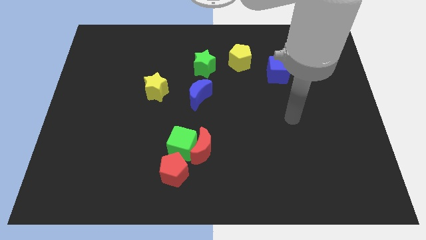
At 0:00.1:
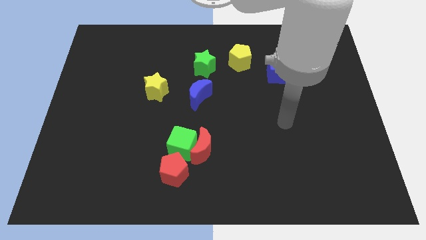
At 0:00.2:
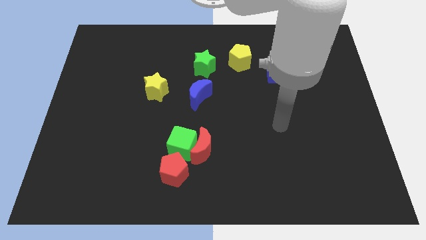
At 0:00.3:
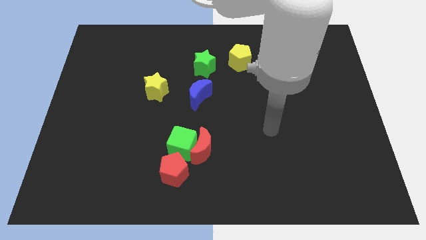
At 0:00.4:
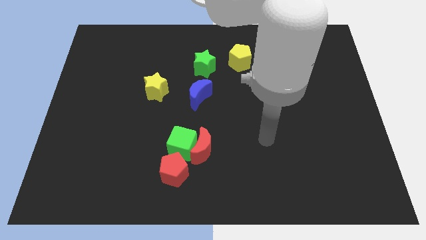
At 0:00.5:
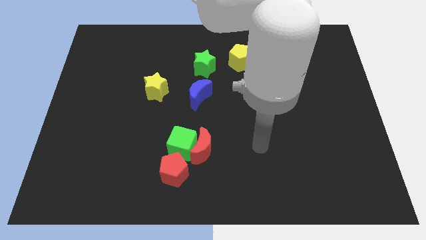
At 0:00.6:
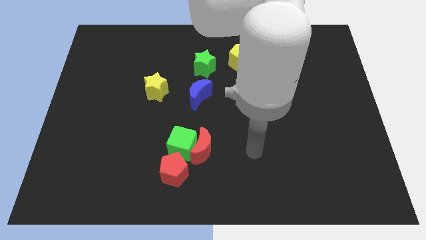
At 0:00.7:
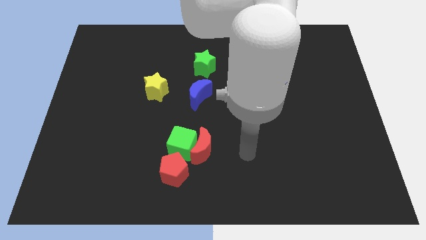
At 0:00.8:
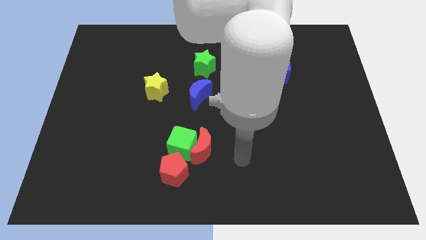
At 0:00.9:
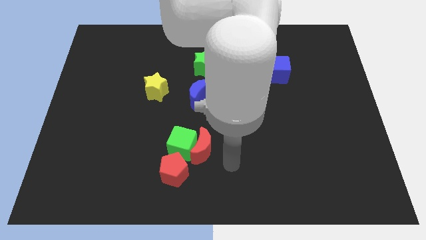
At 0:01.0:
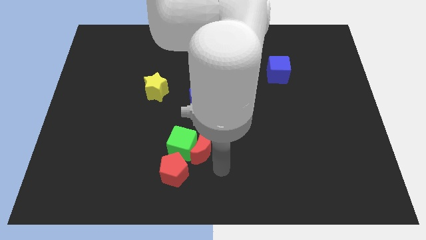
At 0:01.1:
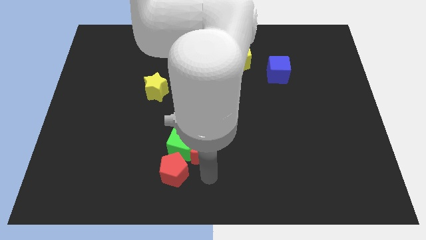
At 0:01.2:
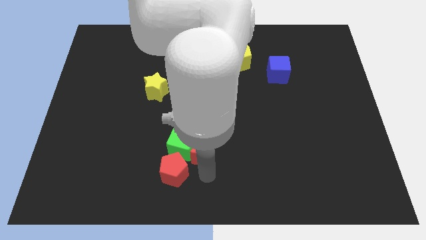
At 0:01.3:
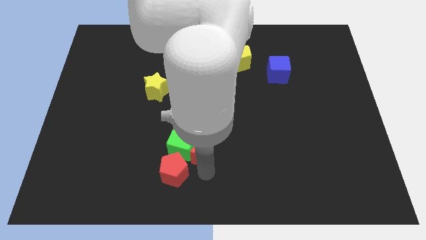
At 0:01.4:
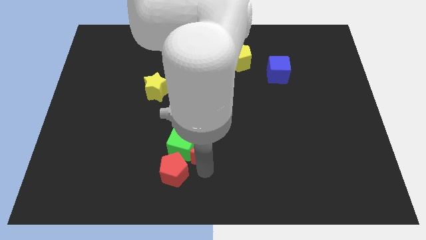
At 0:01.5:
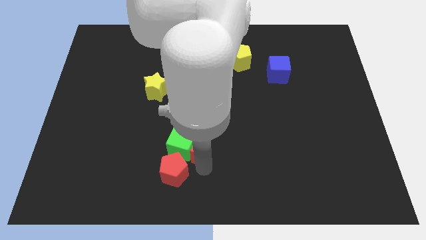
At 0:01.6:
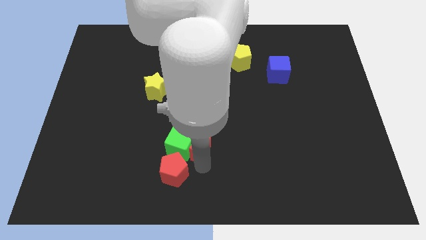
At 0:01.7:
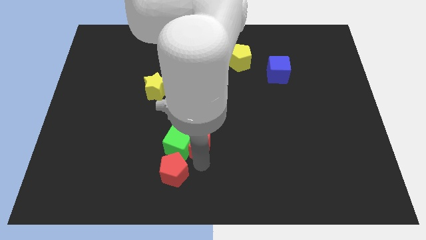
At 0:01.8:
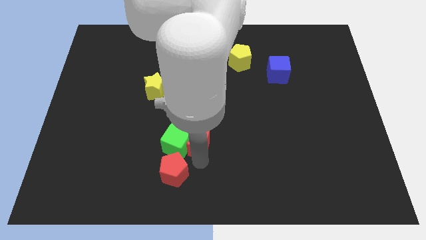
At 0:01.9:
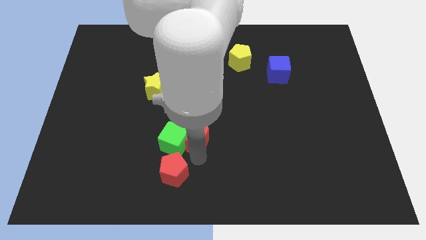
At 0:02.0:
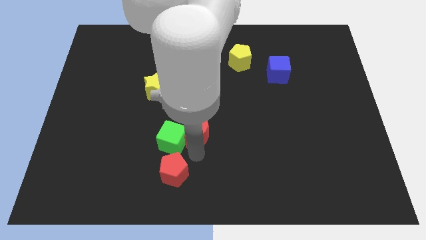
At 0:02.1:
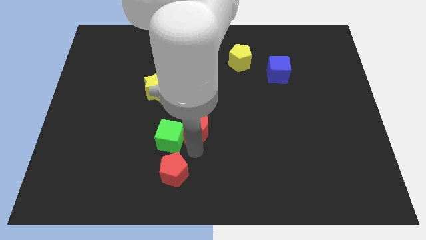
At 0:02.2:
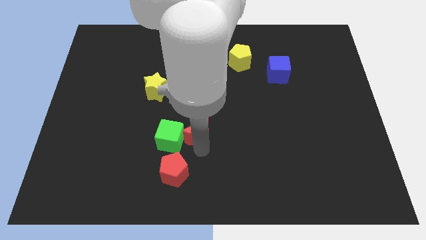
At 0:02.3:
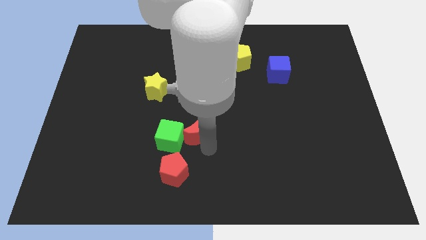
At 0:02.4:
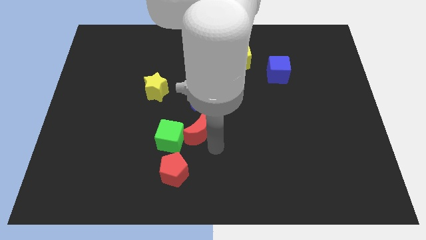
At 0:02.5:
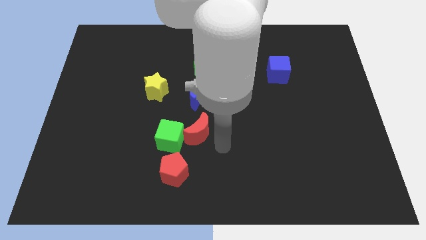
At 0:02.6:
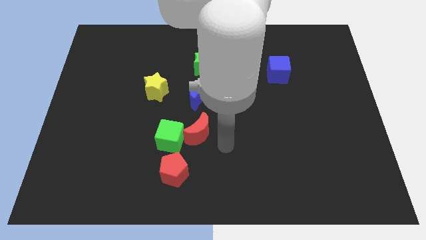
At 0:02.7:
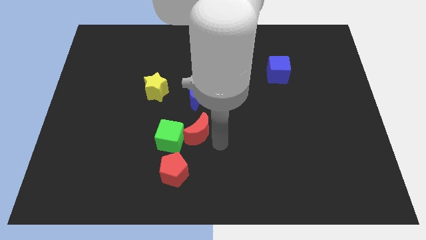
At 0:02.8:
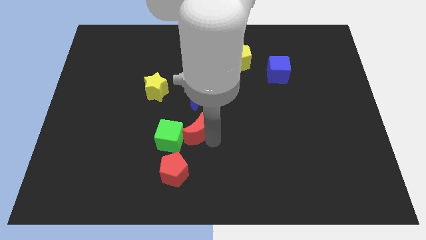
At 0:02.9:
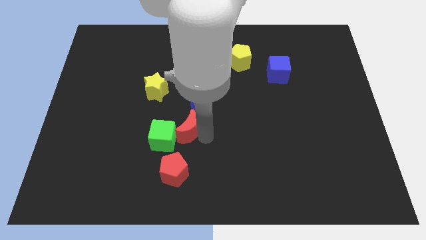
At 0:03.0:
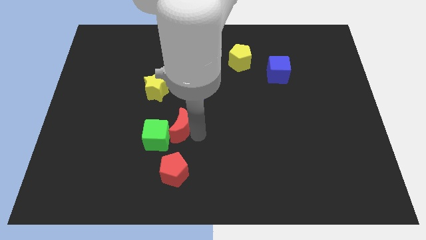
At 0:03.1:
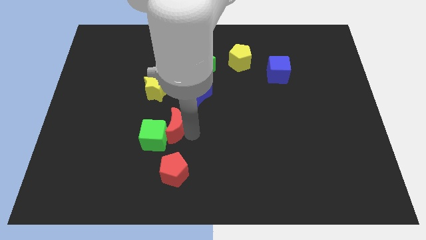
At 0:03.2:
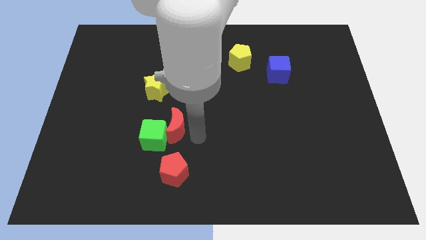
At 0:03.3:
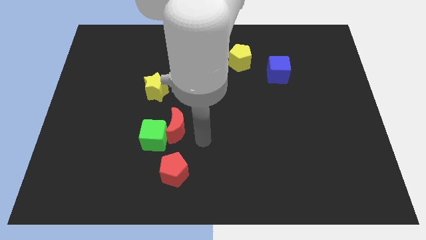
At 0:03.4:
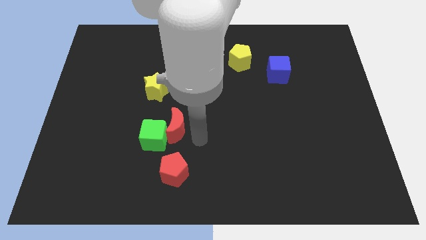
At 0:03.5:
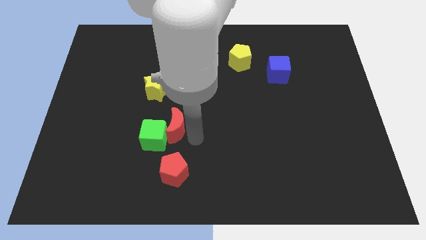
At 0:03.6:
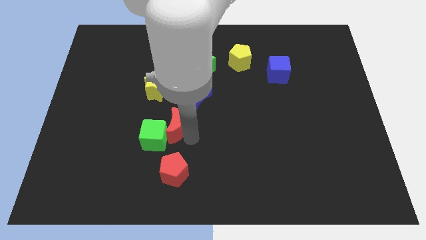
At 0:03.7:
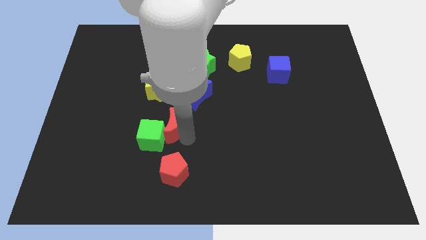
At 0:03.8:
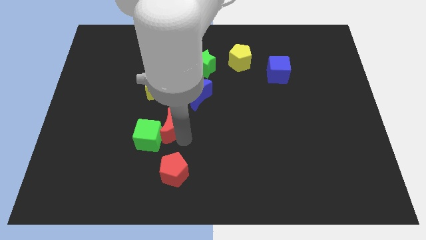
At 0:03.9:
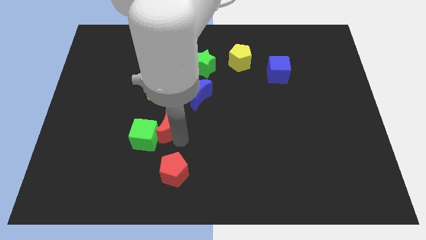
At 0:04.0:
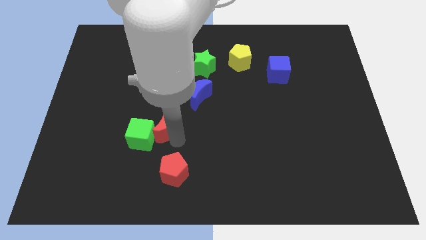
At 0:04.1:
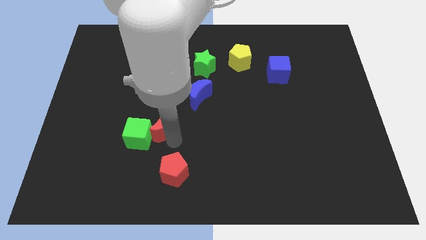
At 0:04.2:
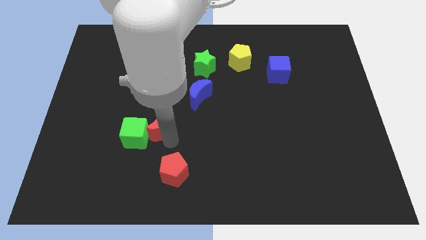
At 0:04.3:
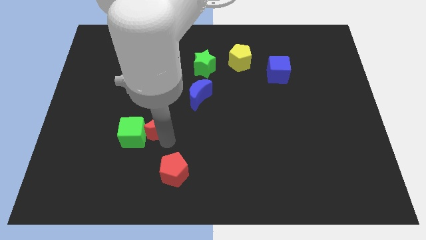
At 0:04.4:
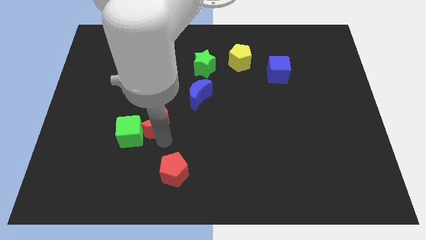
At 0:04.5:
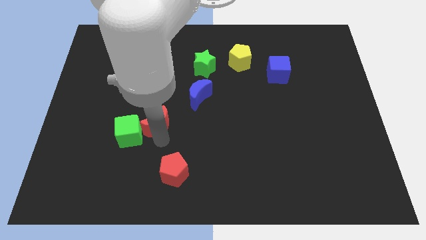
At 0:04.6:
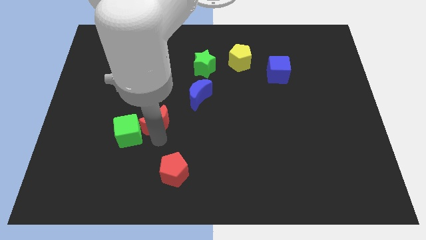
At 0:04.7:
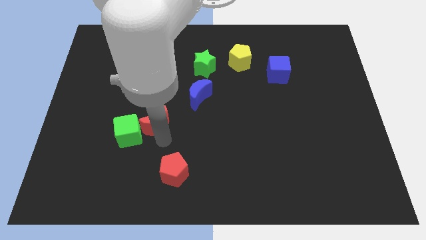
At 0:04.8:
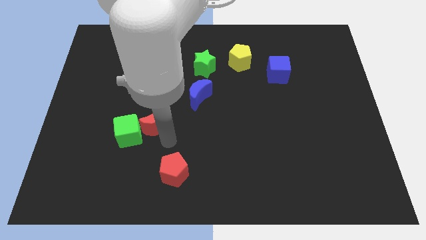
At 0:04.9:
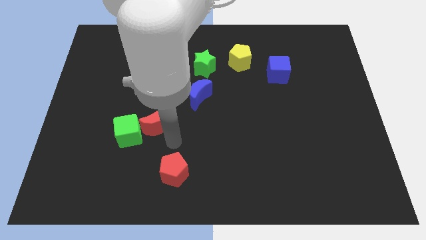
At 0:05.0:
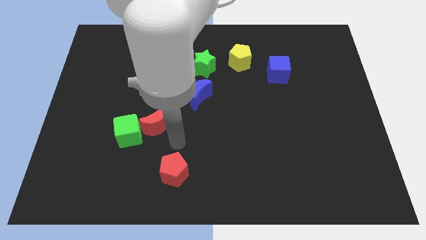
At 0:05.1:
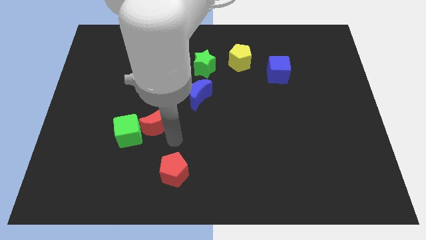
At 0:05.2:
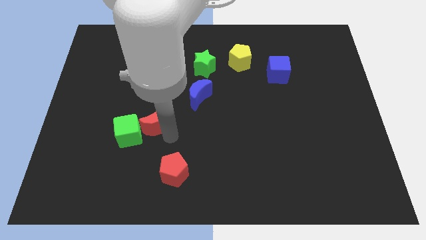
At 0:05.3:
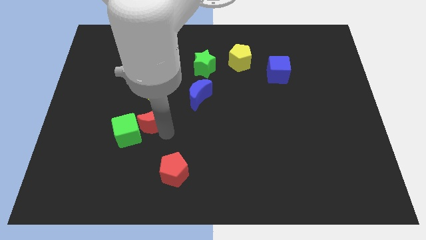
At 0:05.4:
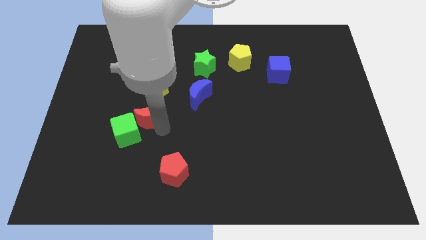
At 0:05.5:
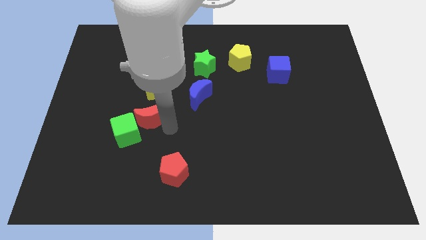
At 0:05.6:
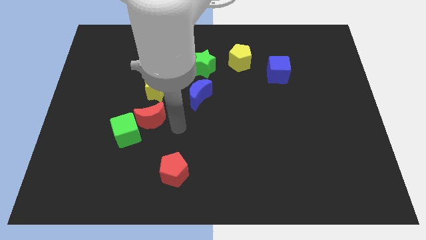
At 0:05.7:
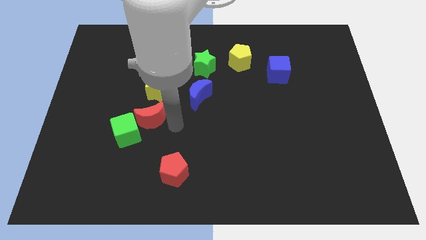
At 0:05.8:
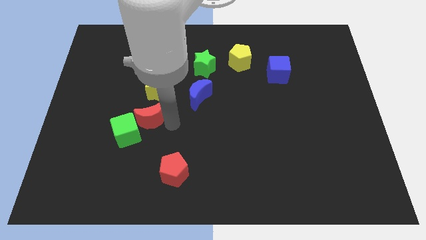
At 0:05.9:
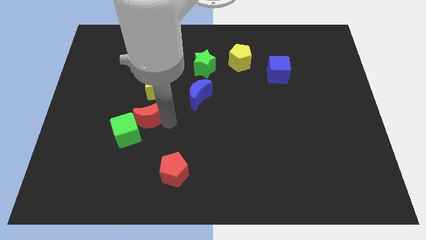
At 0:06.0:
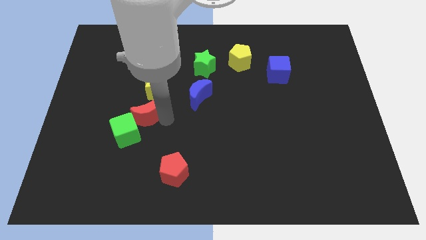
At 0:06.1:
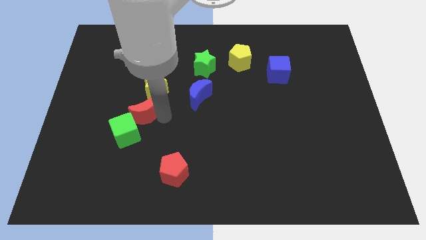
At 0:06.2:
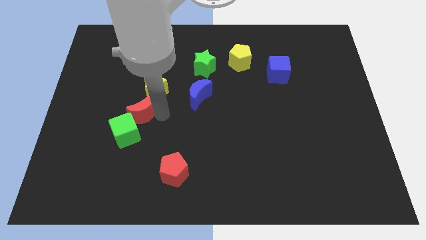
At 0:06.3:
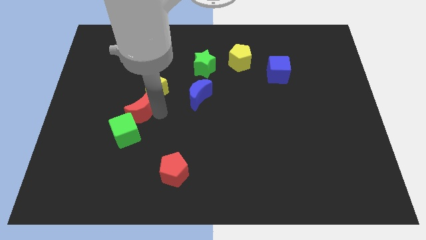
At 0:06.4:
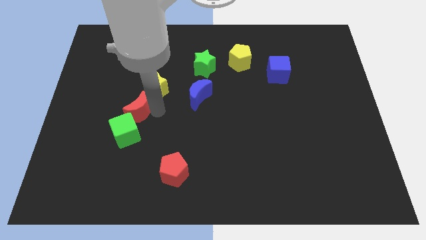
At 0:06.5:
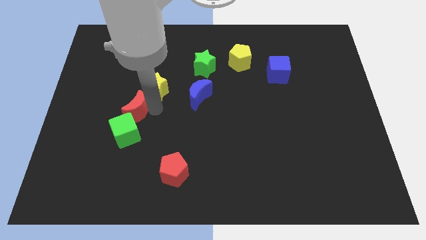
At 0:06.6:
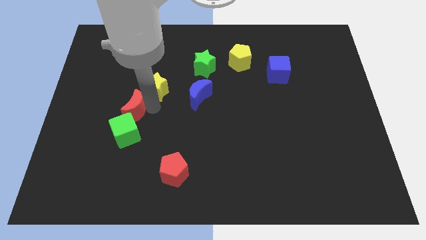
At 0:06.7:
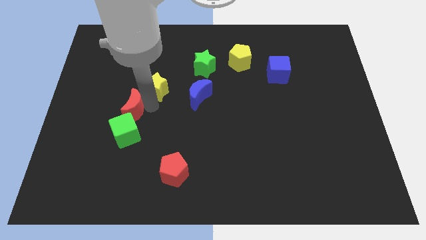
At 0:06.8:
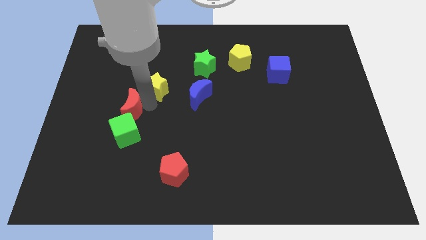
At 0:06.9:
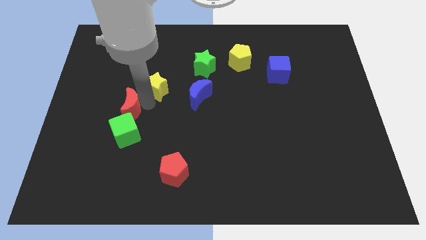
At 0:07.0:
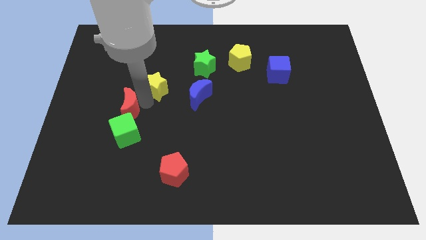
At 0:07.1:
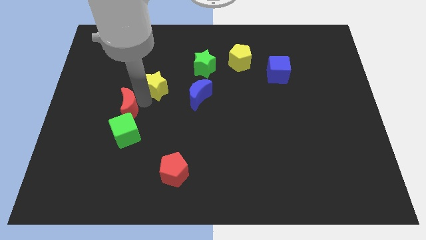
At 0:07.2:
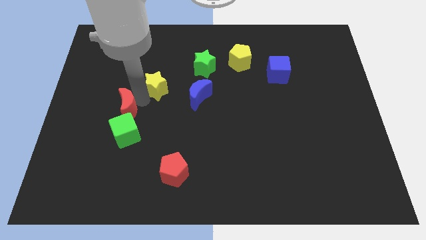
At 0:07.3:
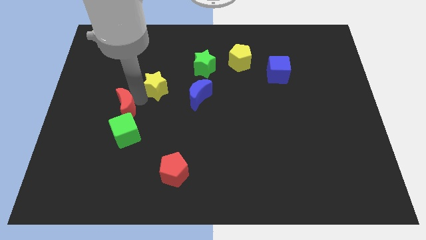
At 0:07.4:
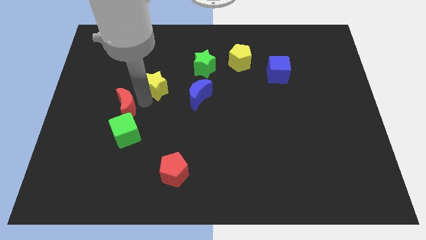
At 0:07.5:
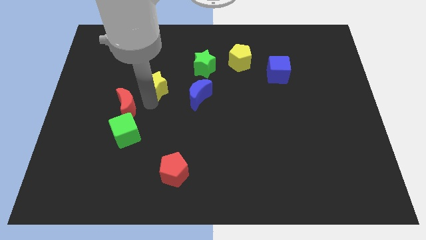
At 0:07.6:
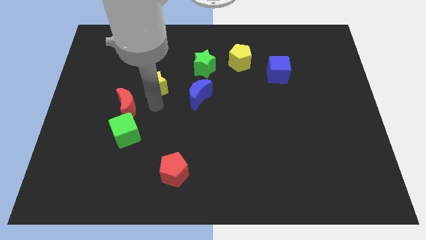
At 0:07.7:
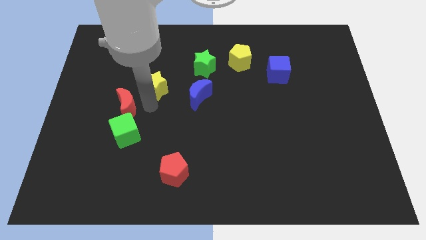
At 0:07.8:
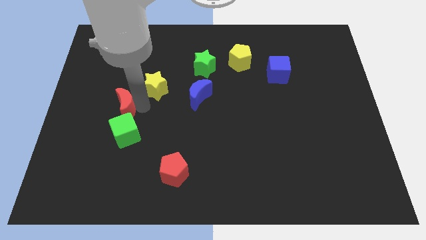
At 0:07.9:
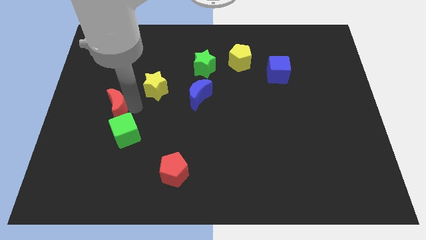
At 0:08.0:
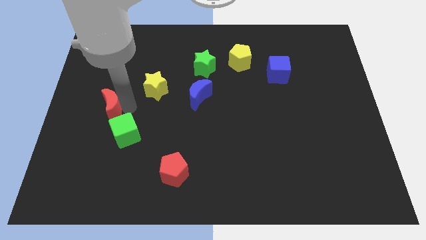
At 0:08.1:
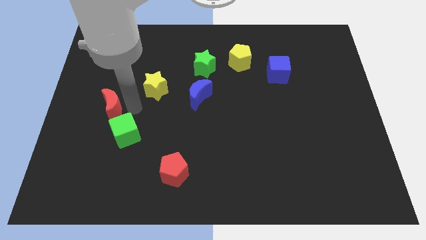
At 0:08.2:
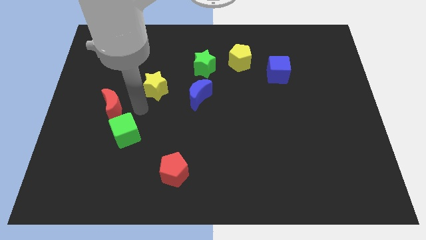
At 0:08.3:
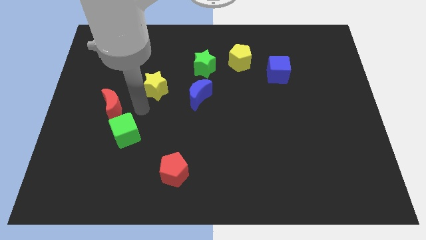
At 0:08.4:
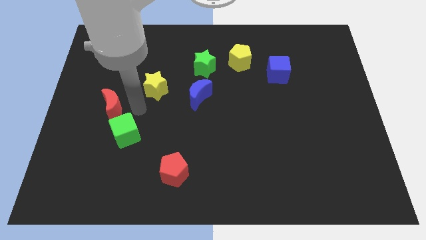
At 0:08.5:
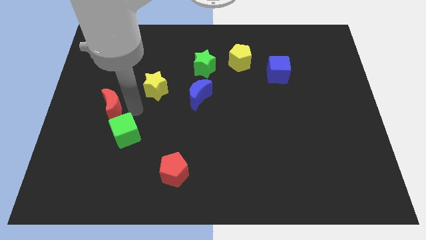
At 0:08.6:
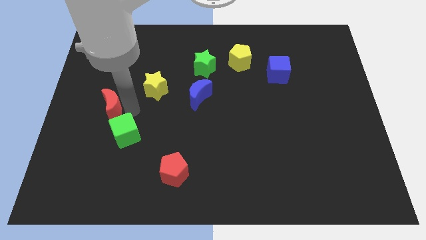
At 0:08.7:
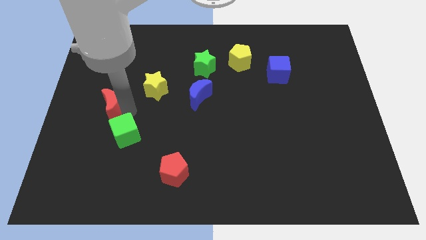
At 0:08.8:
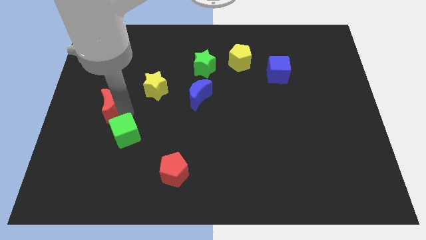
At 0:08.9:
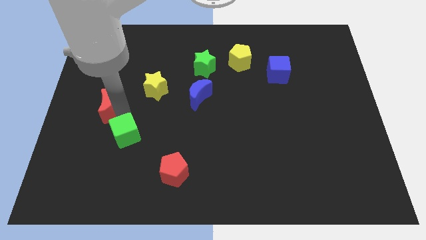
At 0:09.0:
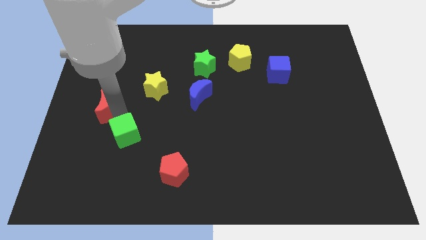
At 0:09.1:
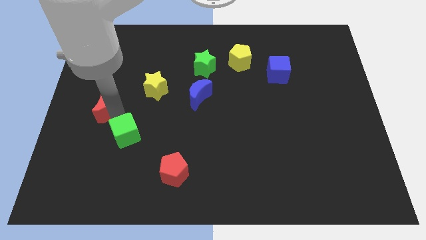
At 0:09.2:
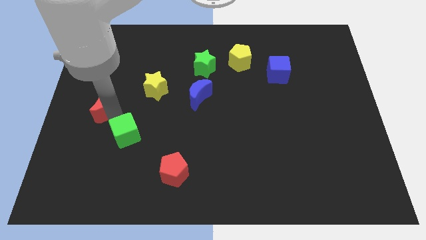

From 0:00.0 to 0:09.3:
put the red moon to the left side of the board
